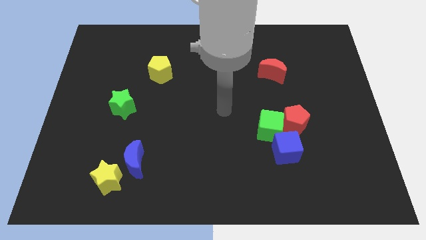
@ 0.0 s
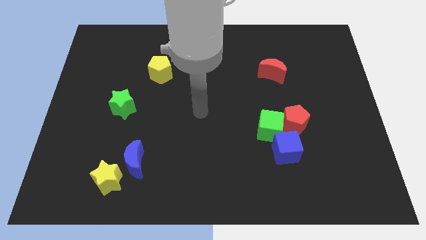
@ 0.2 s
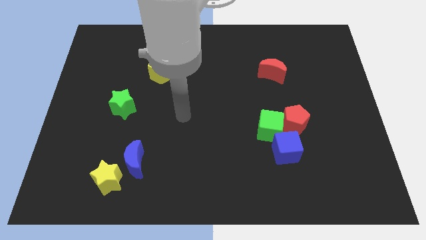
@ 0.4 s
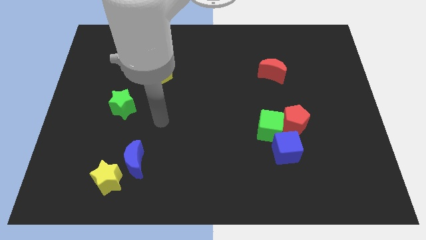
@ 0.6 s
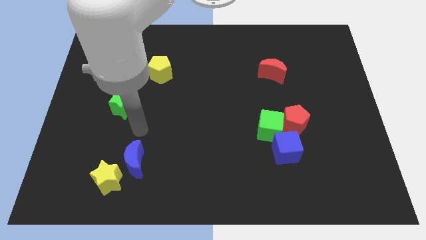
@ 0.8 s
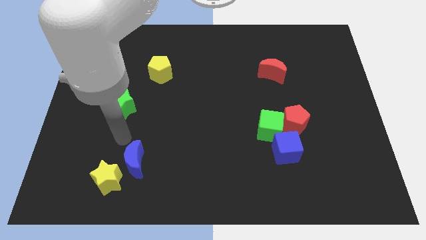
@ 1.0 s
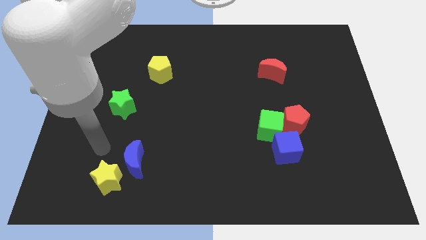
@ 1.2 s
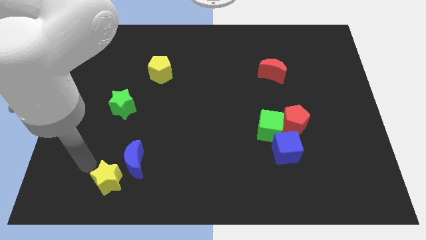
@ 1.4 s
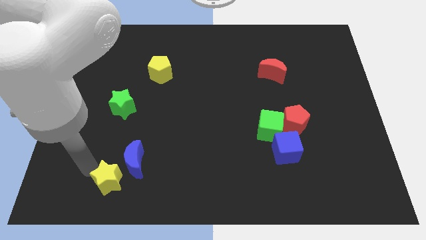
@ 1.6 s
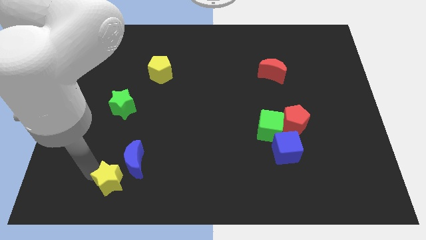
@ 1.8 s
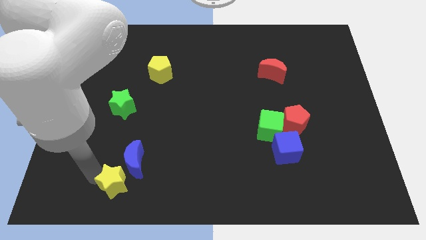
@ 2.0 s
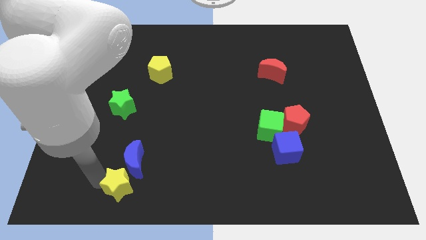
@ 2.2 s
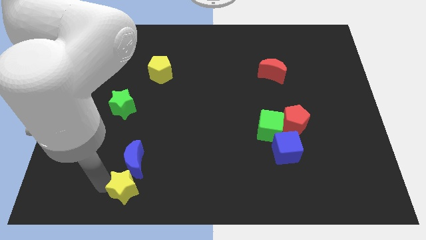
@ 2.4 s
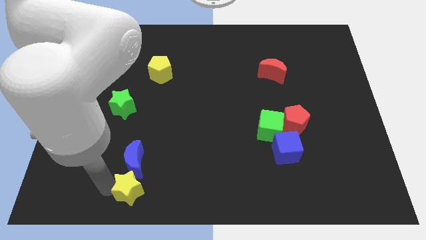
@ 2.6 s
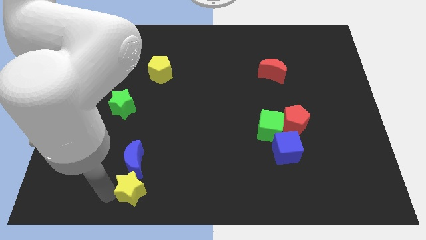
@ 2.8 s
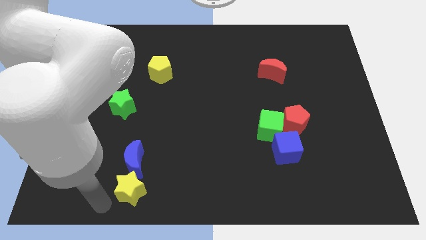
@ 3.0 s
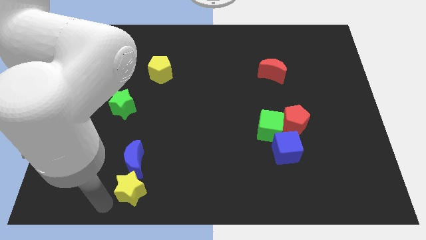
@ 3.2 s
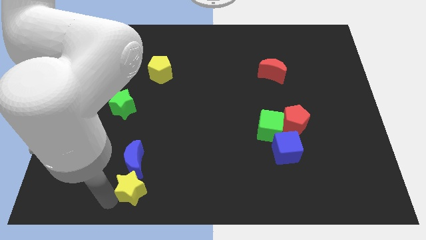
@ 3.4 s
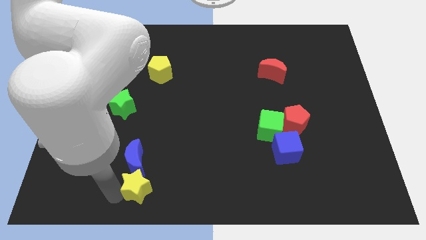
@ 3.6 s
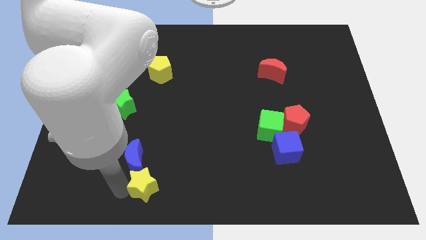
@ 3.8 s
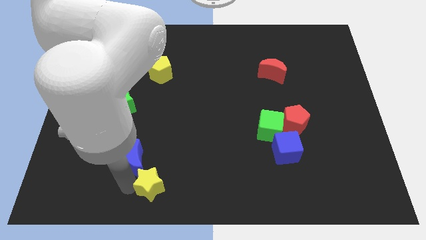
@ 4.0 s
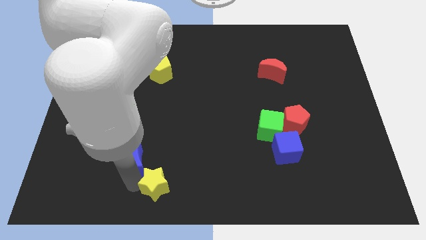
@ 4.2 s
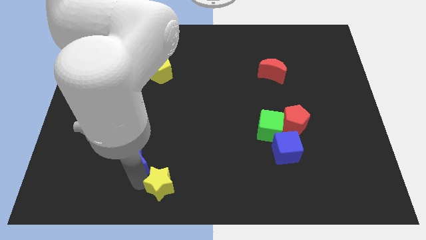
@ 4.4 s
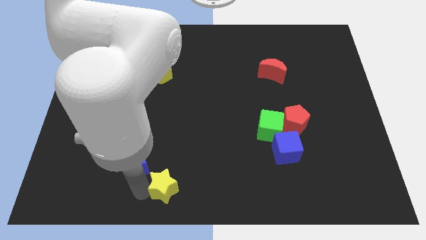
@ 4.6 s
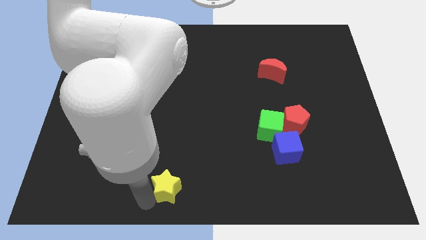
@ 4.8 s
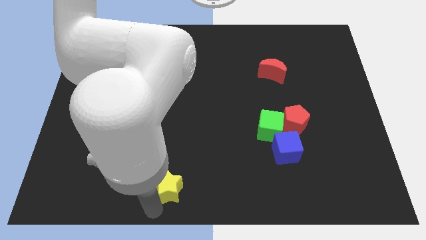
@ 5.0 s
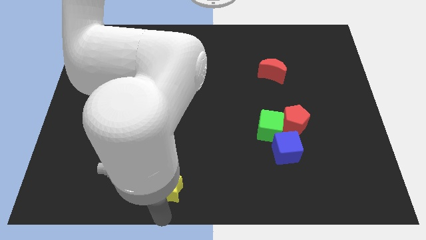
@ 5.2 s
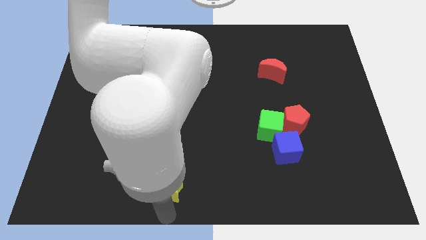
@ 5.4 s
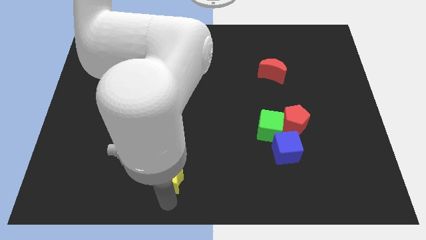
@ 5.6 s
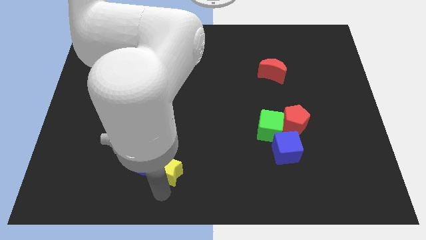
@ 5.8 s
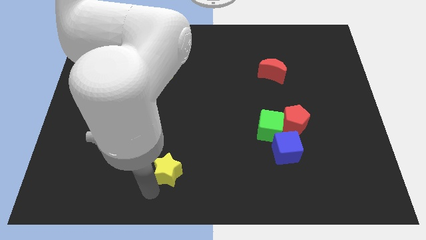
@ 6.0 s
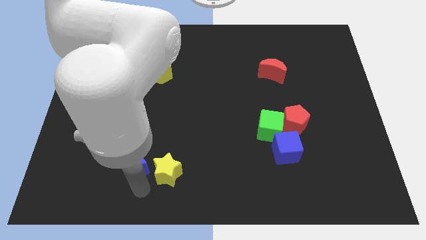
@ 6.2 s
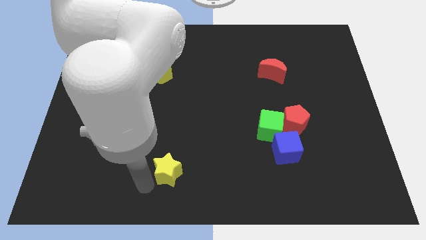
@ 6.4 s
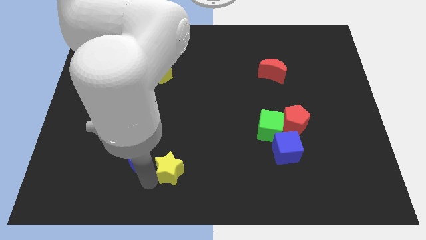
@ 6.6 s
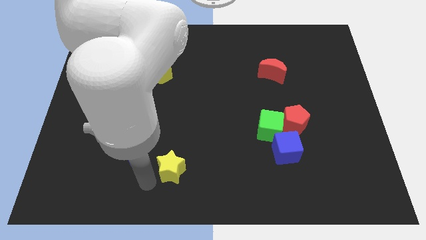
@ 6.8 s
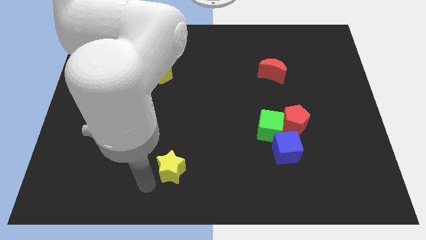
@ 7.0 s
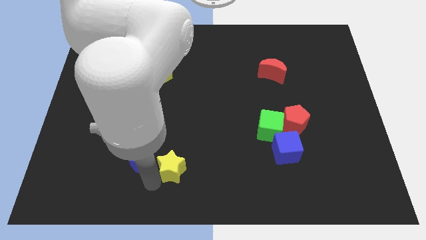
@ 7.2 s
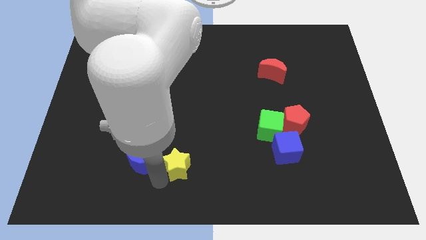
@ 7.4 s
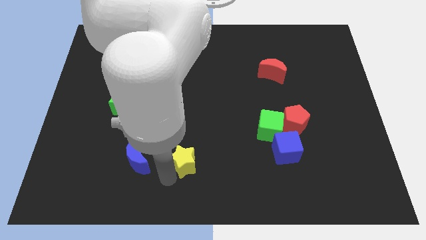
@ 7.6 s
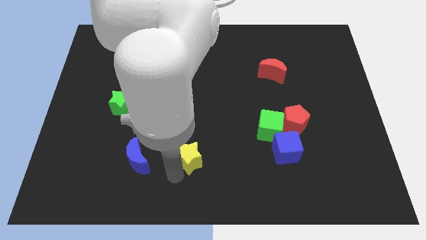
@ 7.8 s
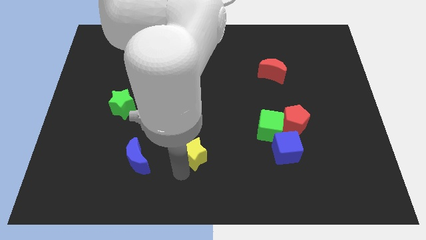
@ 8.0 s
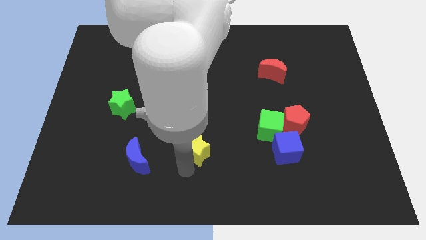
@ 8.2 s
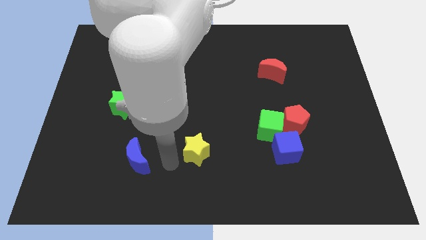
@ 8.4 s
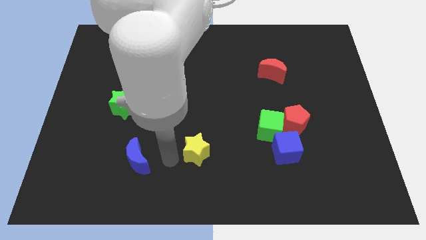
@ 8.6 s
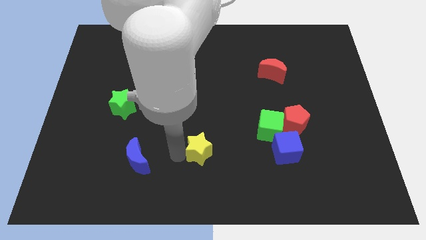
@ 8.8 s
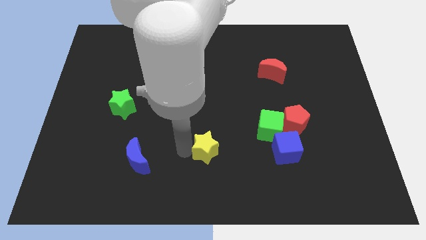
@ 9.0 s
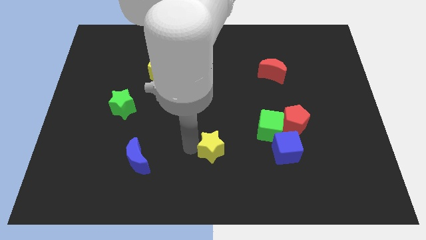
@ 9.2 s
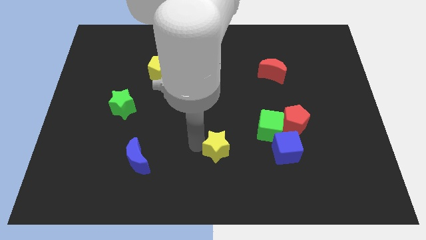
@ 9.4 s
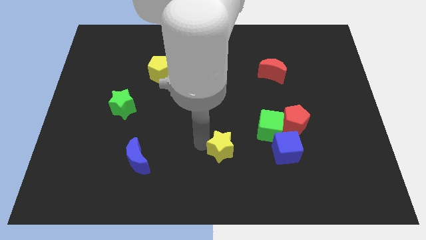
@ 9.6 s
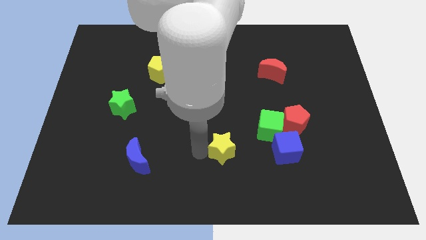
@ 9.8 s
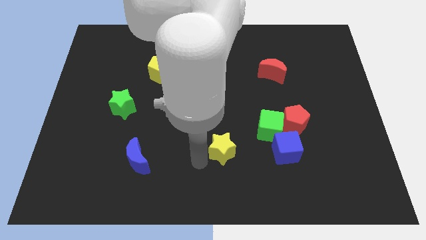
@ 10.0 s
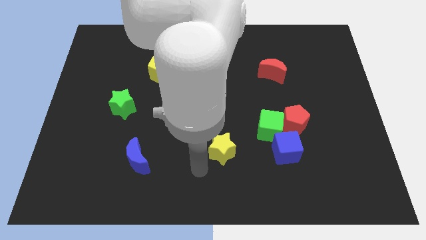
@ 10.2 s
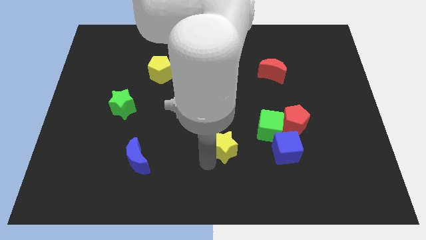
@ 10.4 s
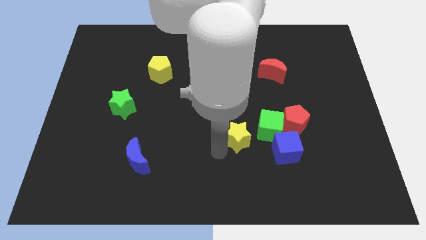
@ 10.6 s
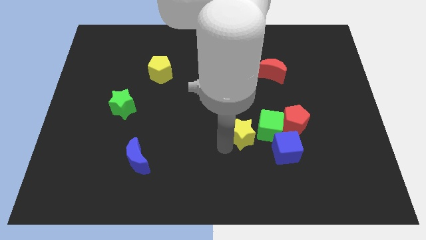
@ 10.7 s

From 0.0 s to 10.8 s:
push the yellow star to the top left of the blue cube

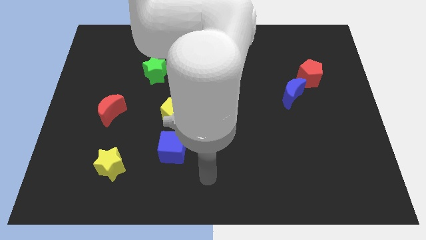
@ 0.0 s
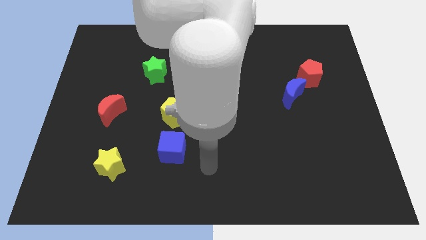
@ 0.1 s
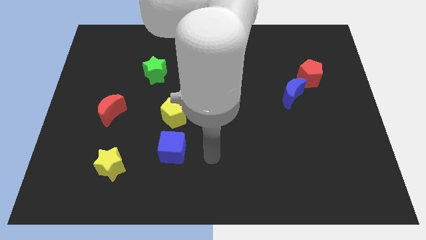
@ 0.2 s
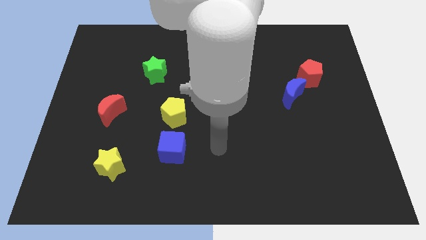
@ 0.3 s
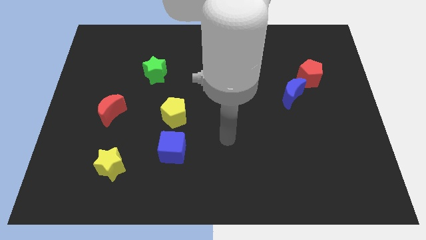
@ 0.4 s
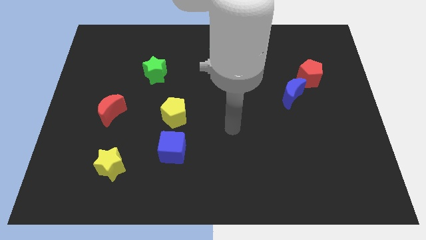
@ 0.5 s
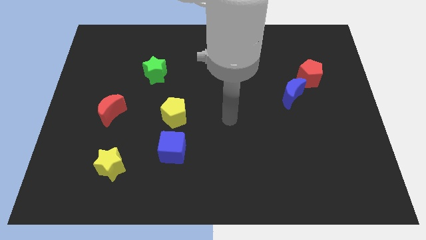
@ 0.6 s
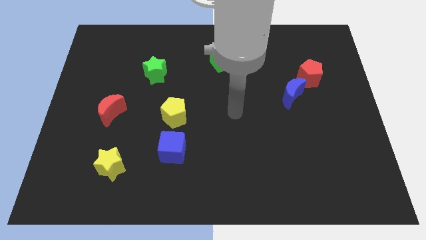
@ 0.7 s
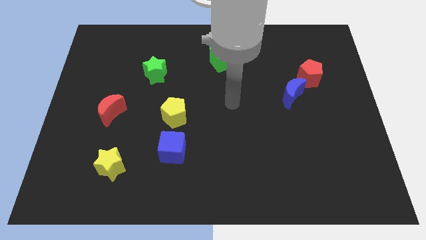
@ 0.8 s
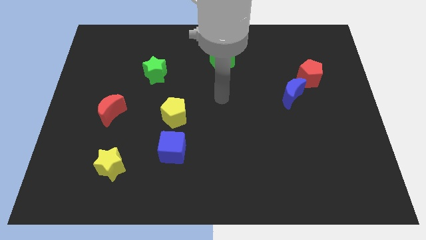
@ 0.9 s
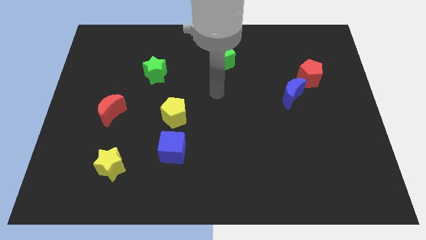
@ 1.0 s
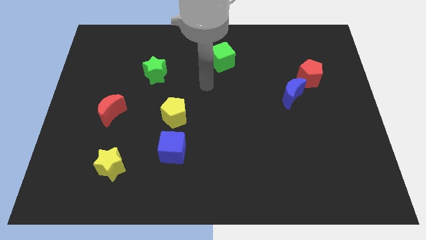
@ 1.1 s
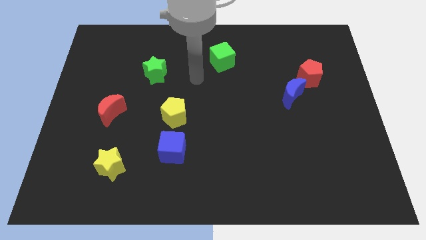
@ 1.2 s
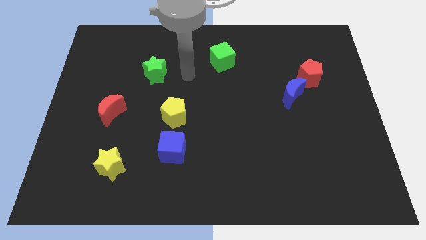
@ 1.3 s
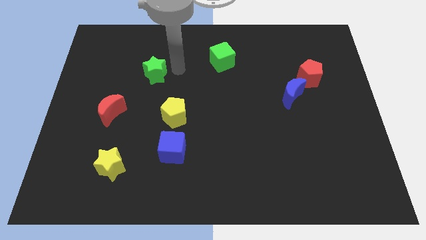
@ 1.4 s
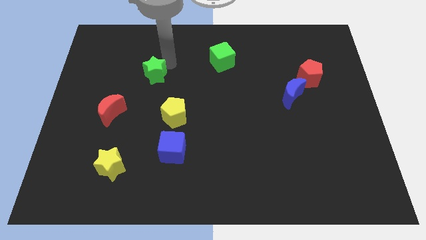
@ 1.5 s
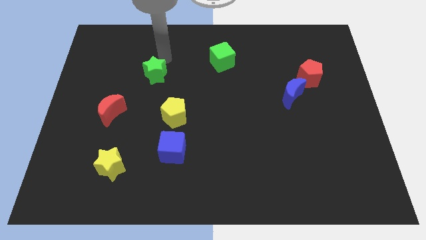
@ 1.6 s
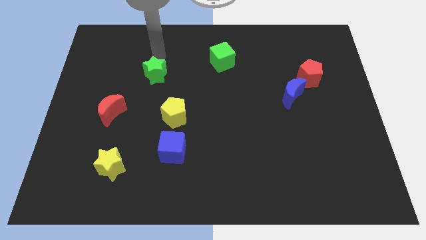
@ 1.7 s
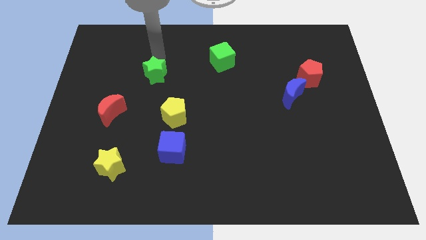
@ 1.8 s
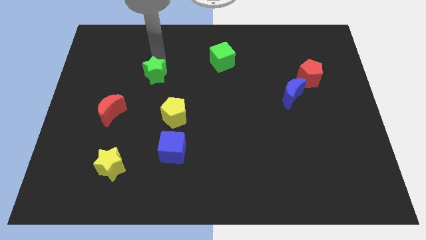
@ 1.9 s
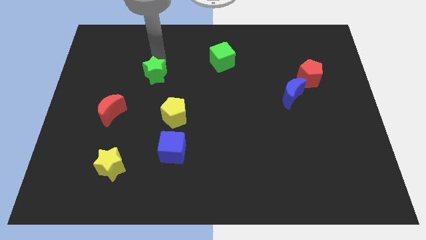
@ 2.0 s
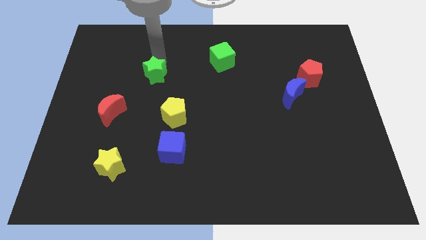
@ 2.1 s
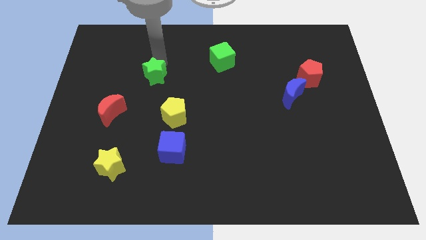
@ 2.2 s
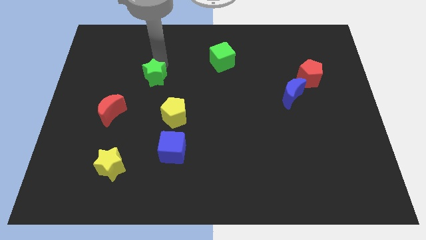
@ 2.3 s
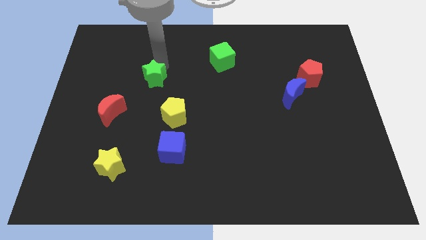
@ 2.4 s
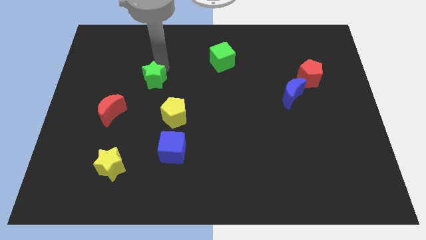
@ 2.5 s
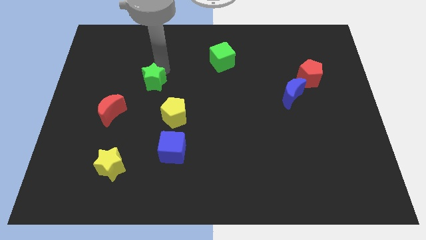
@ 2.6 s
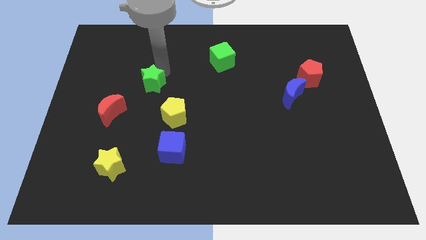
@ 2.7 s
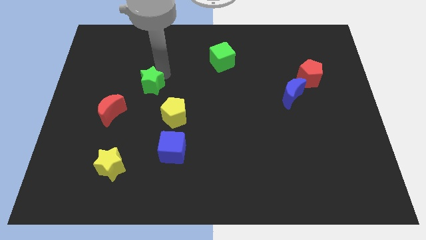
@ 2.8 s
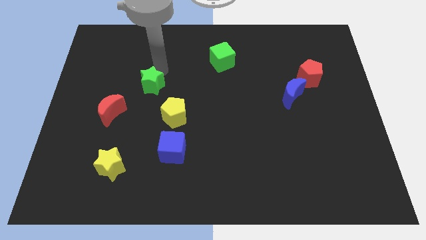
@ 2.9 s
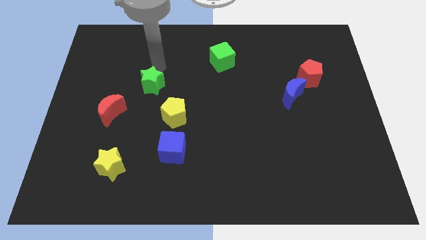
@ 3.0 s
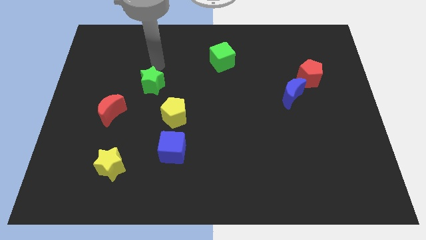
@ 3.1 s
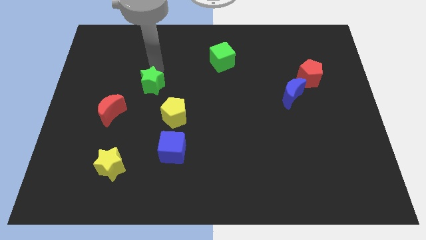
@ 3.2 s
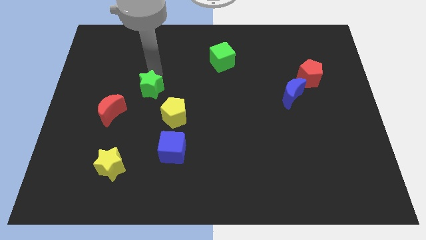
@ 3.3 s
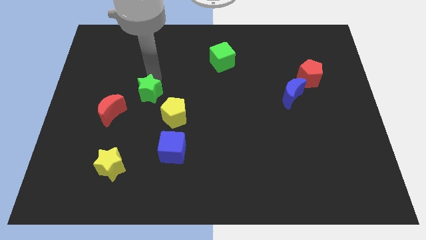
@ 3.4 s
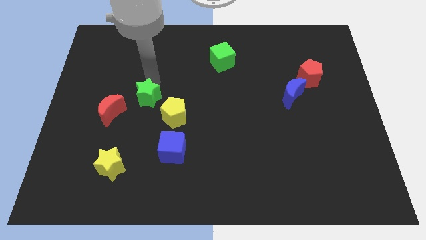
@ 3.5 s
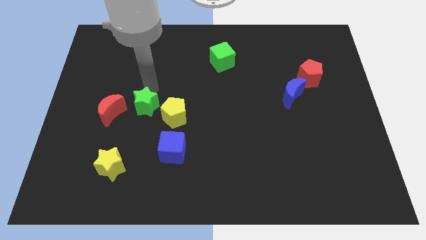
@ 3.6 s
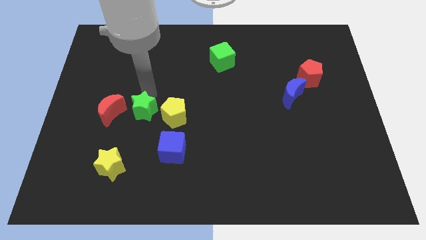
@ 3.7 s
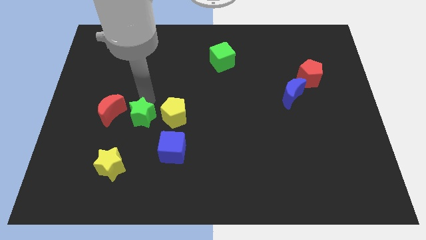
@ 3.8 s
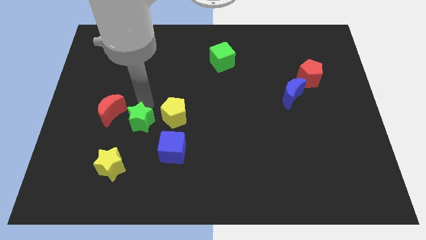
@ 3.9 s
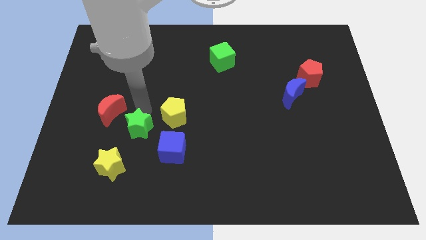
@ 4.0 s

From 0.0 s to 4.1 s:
put the green star to the top right side of the yellow star
